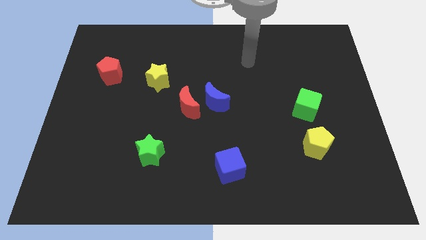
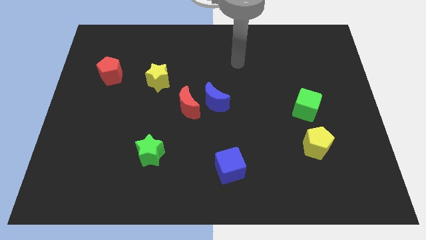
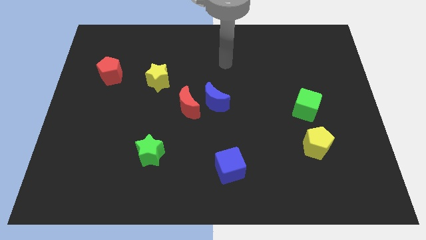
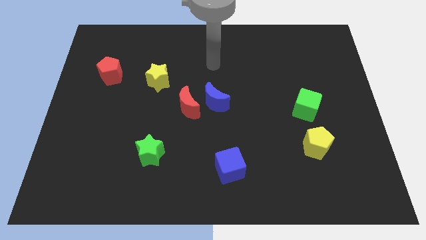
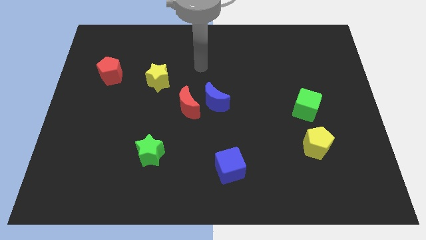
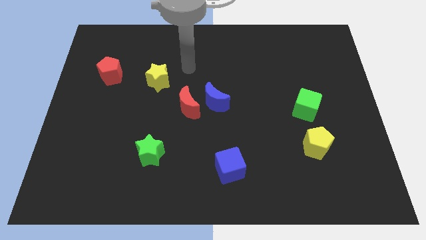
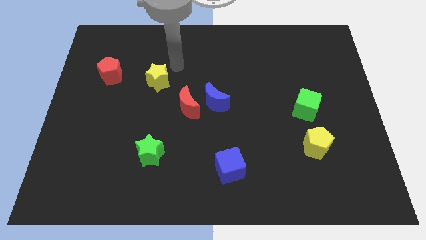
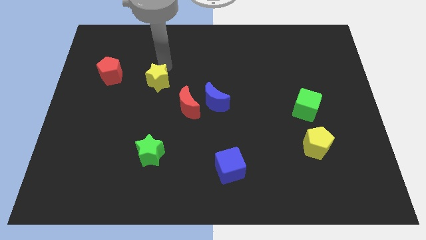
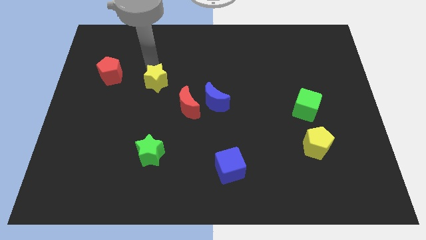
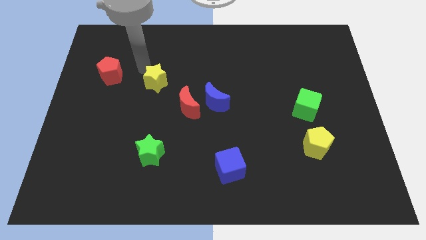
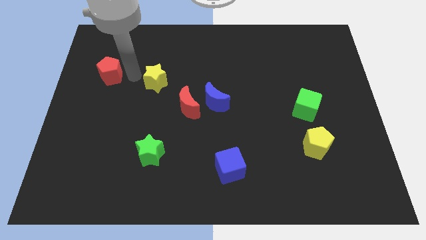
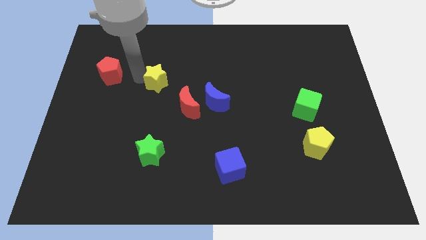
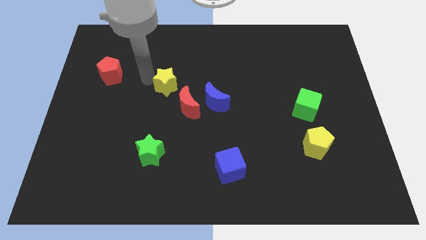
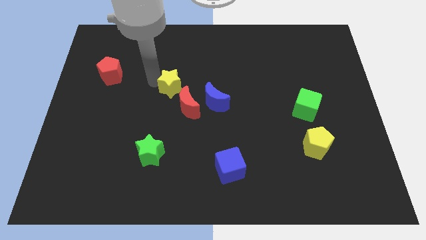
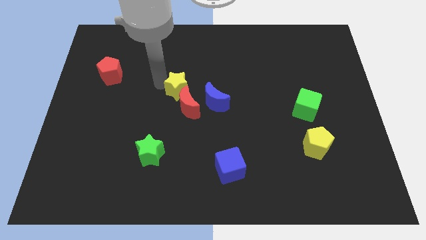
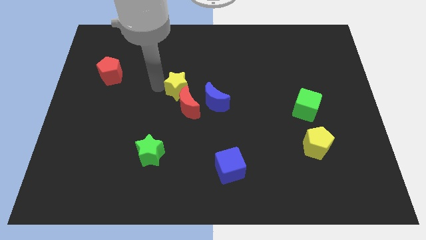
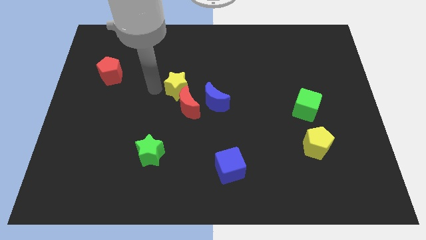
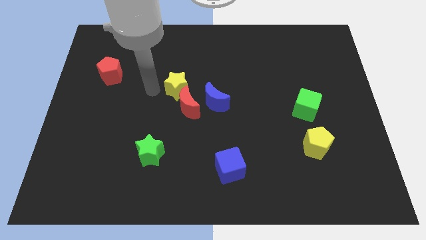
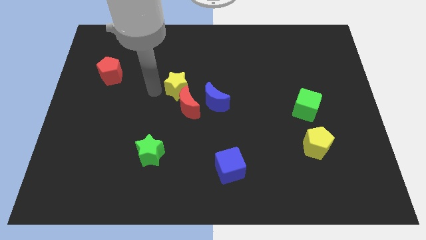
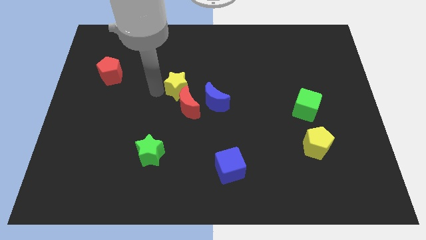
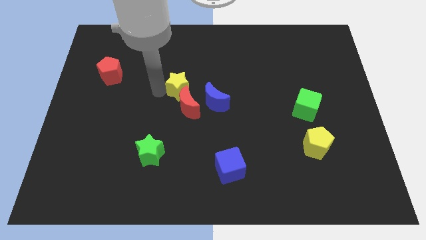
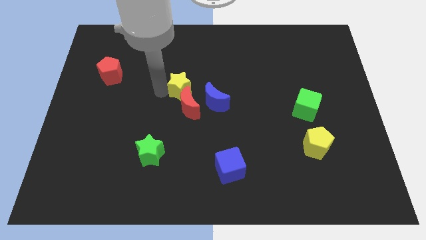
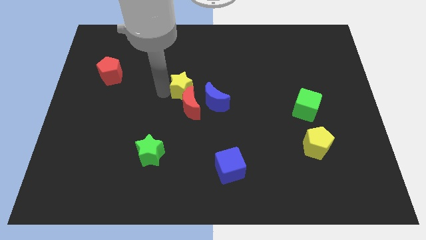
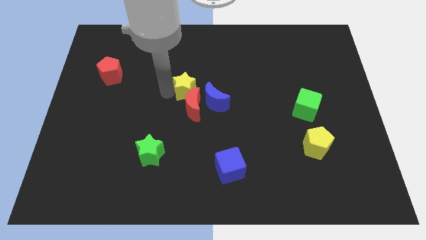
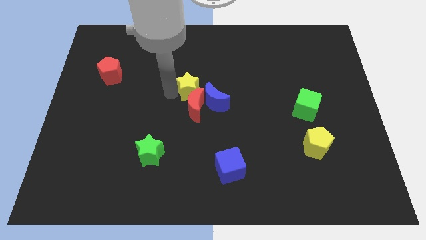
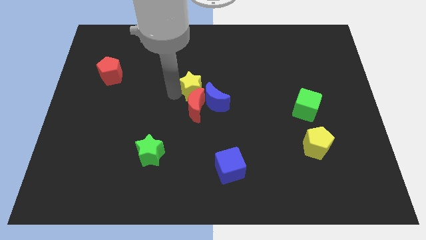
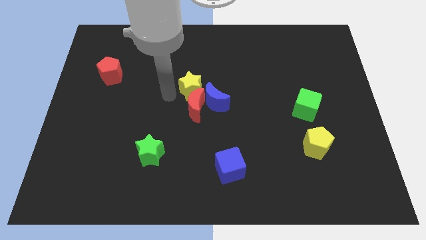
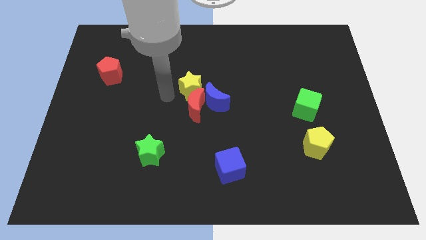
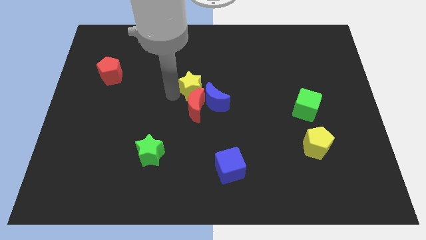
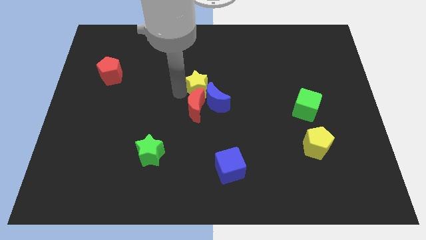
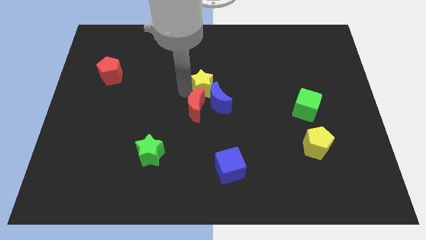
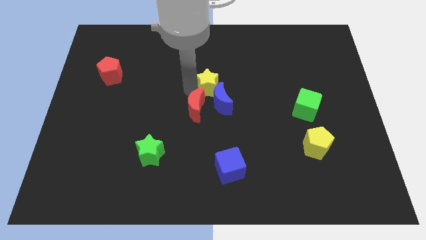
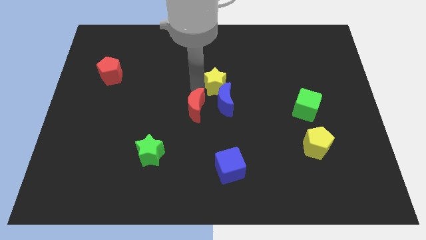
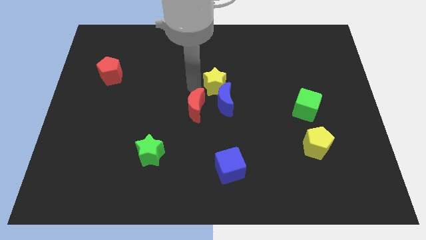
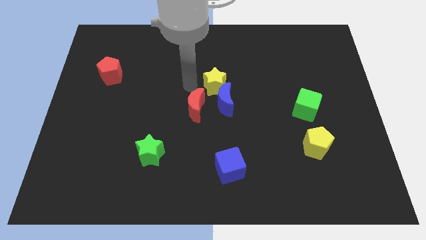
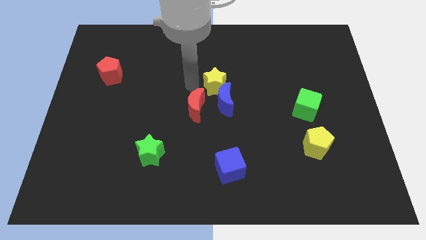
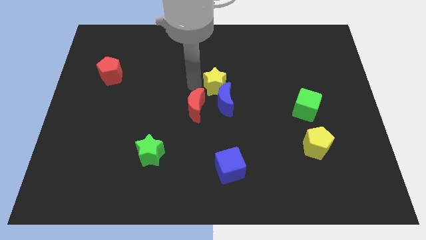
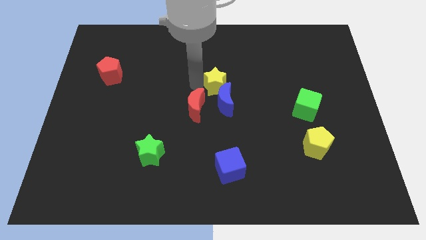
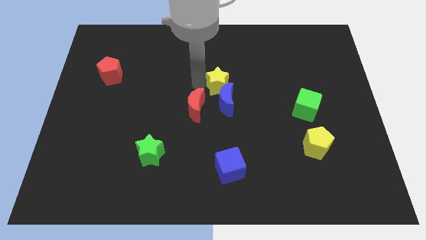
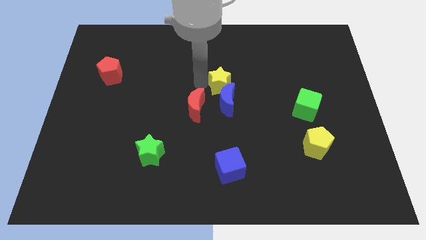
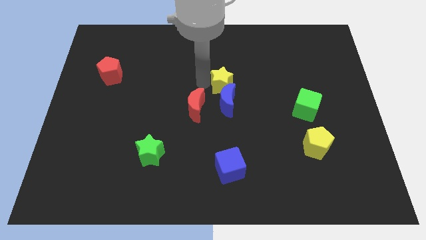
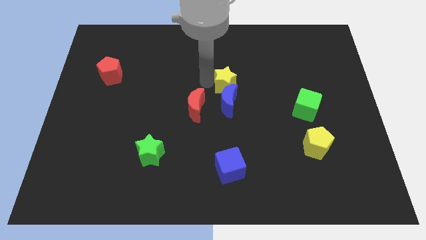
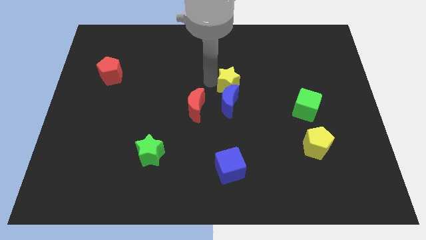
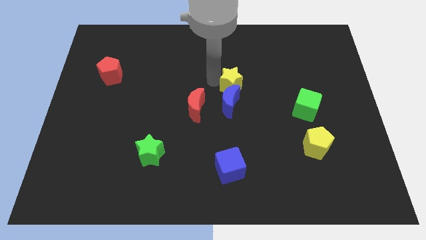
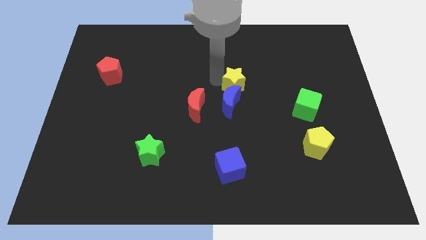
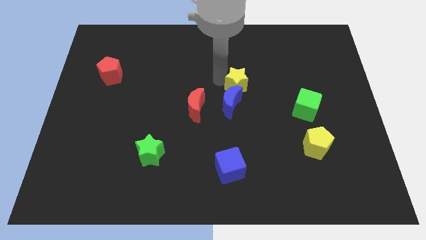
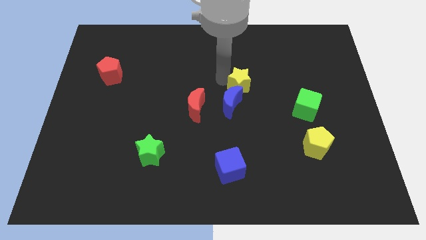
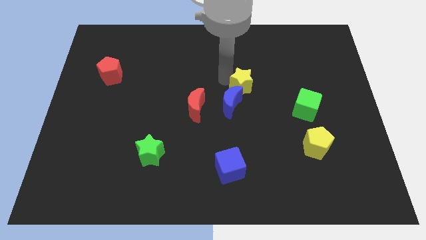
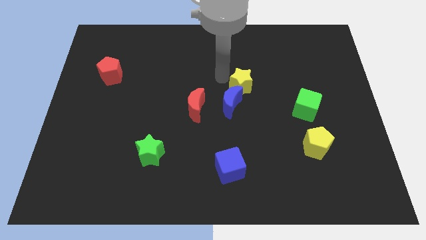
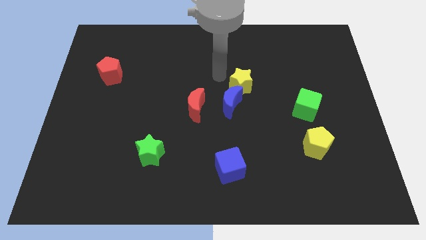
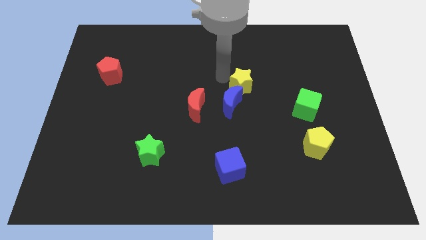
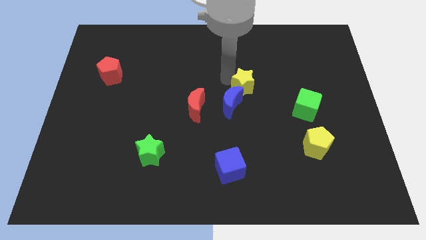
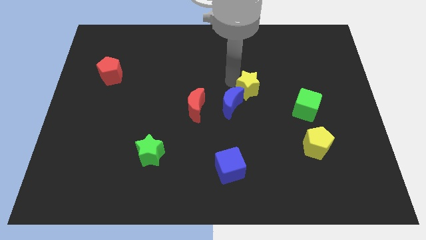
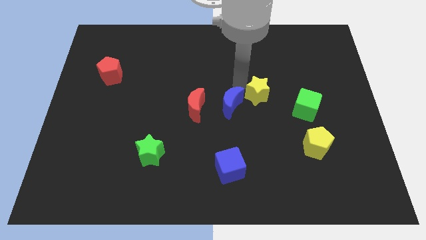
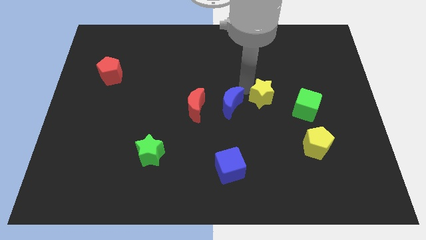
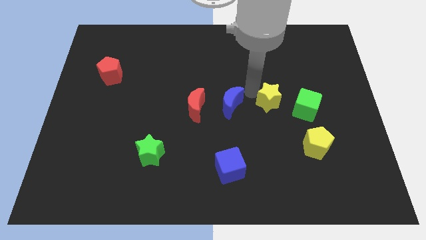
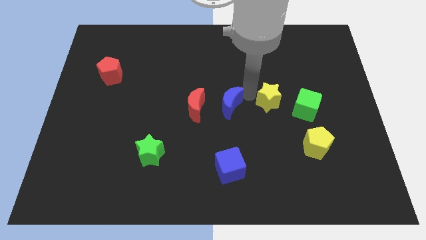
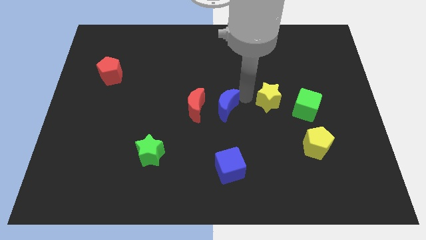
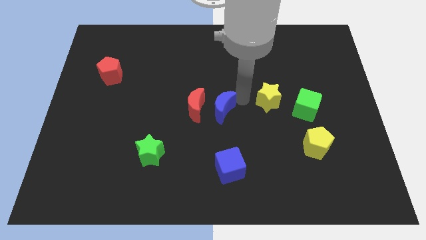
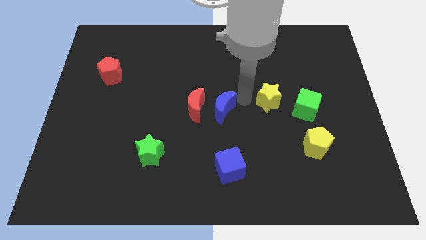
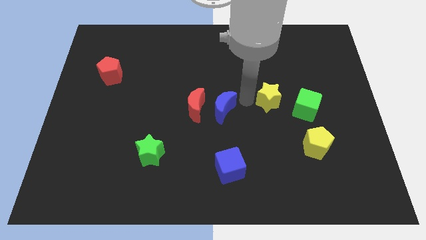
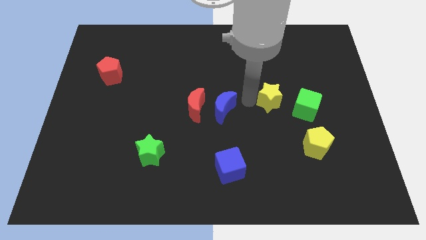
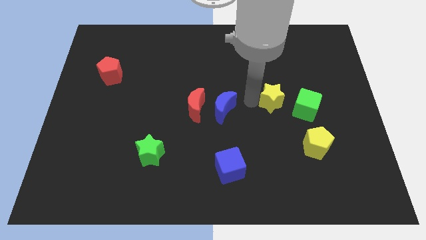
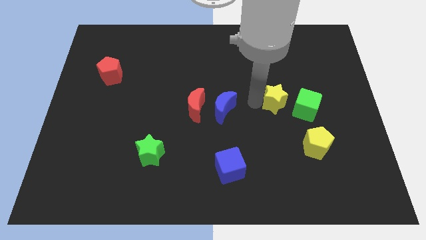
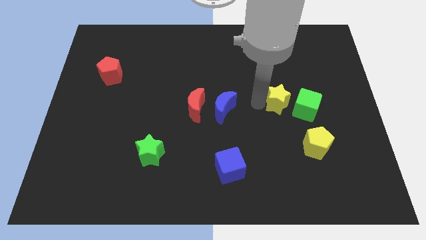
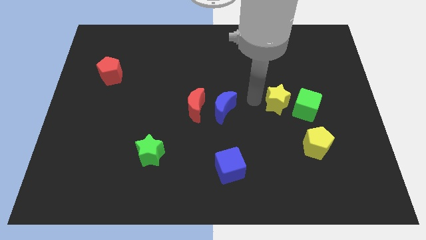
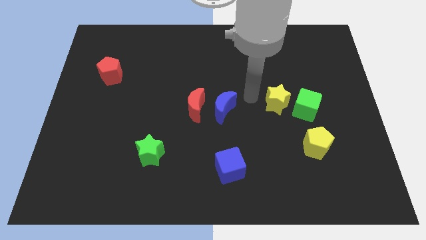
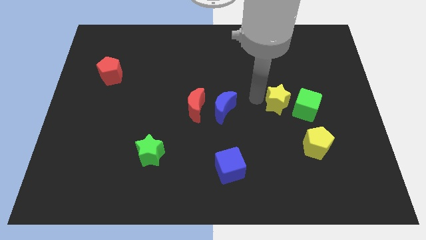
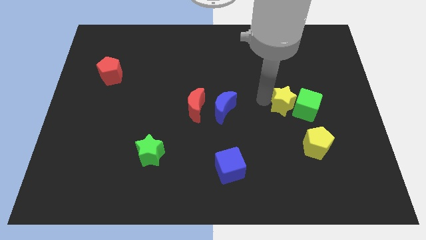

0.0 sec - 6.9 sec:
push the yellow star towards the green cube

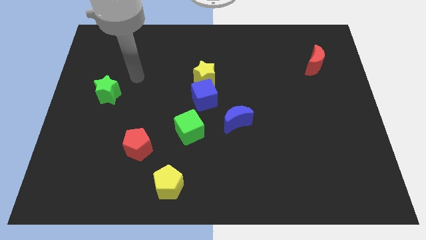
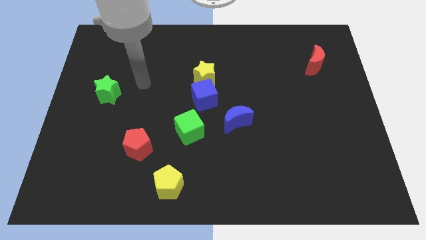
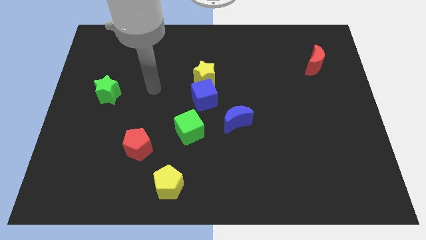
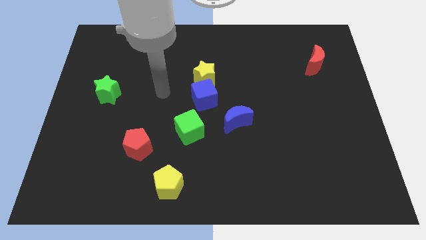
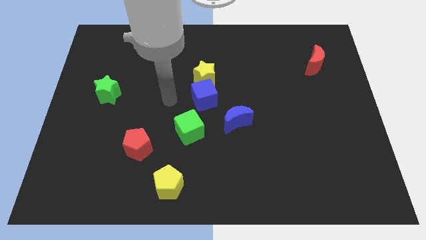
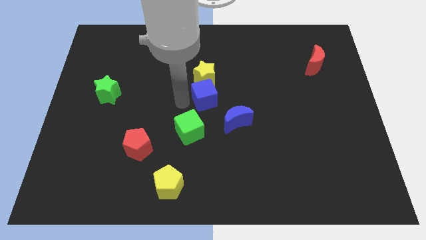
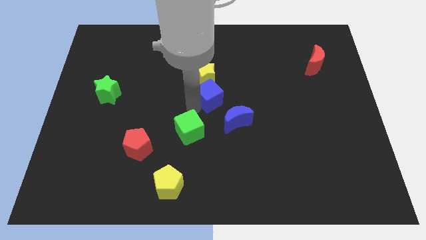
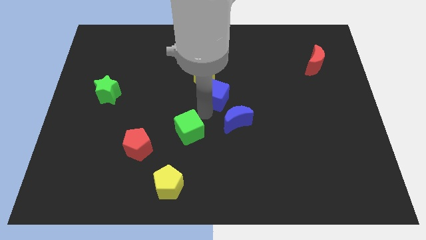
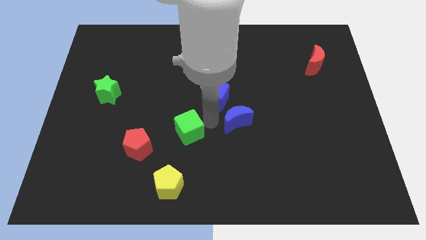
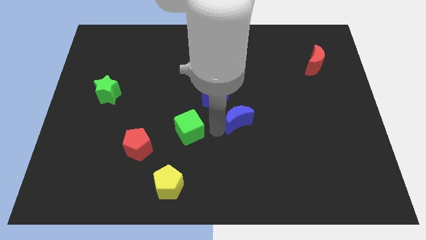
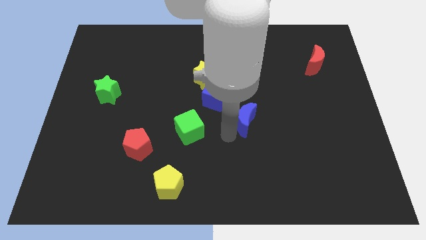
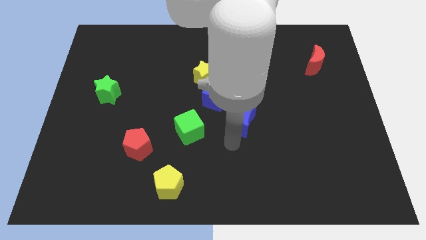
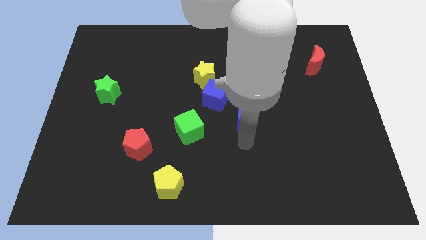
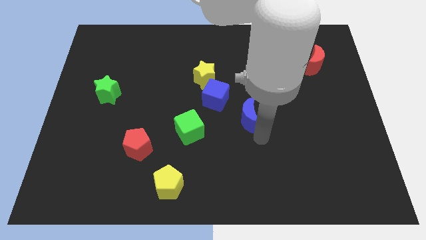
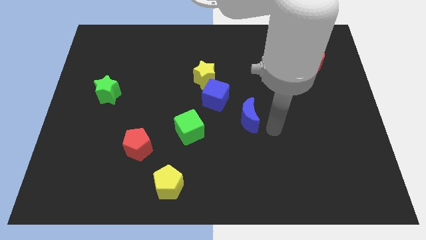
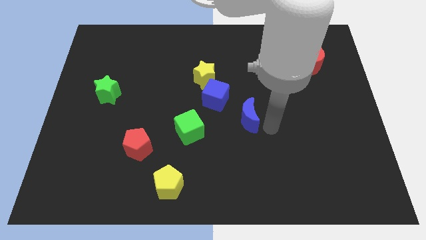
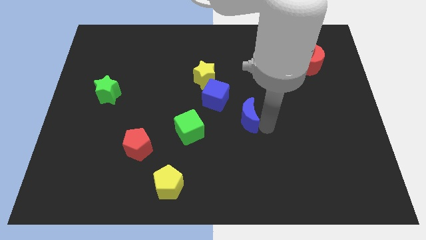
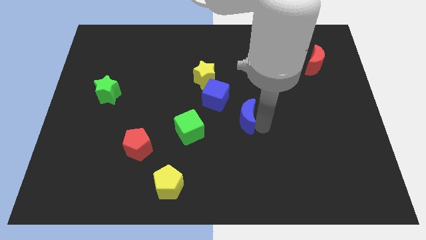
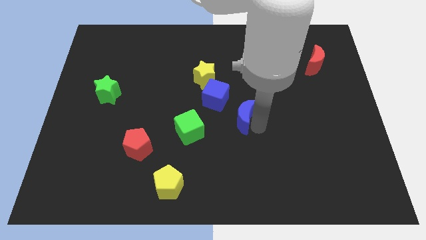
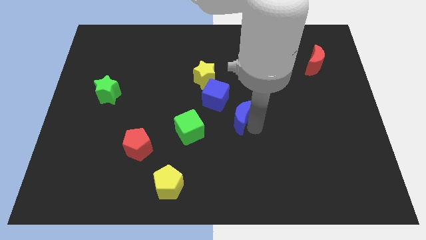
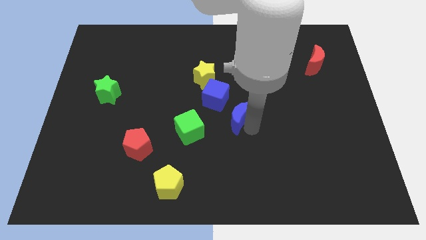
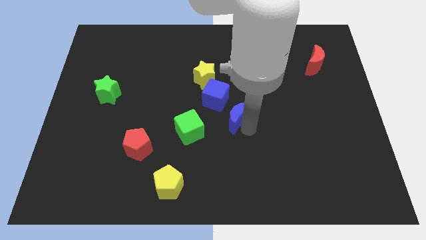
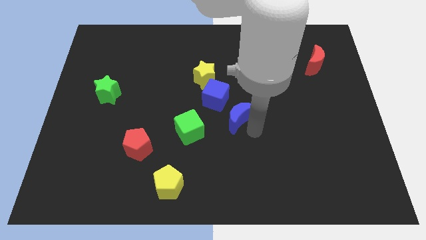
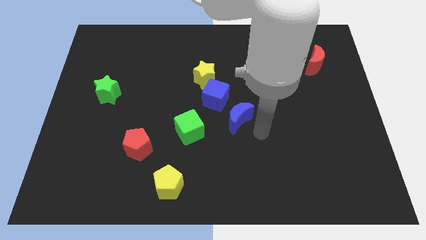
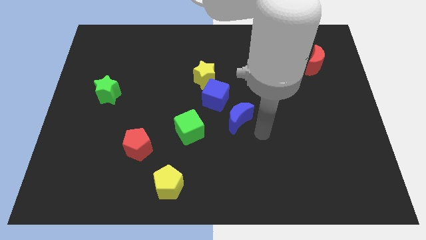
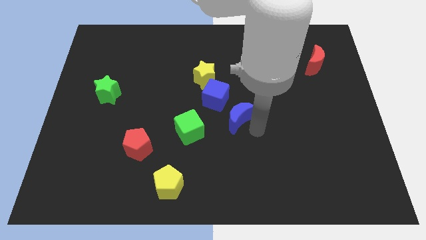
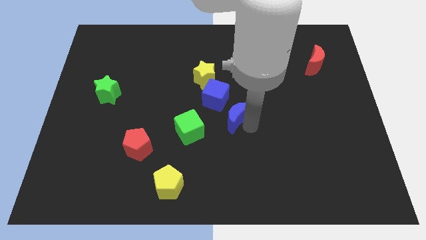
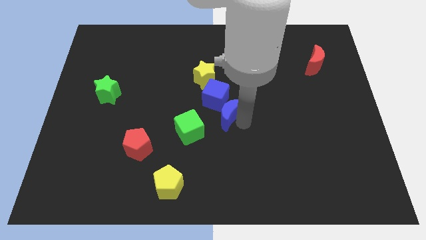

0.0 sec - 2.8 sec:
put the blue moon close to the blue cube
